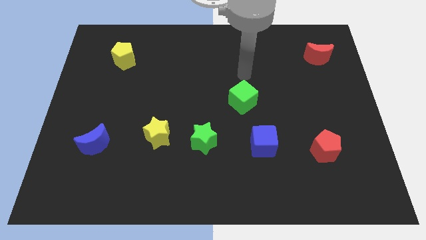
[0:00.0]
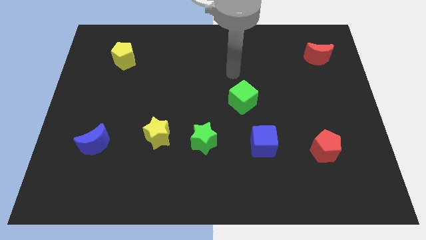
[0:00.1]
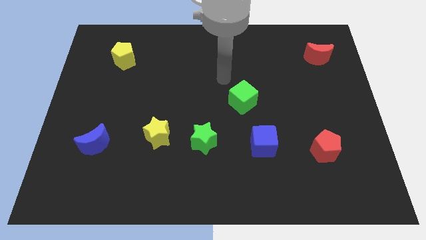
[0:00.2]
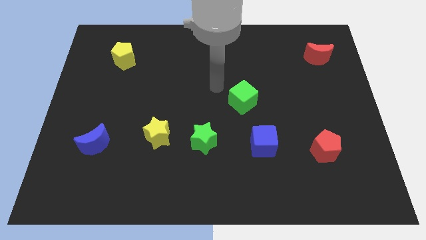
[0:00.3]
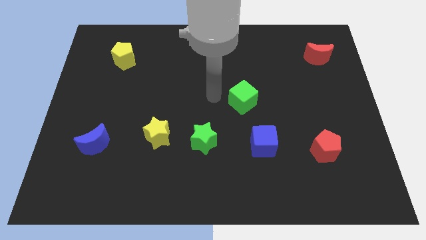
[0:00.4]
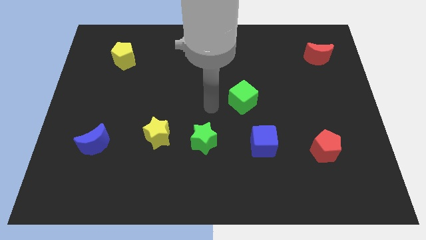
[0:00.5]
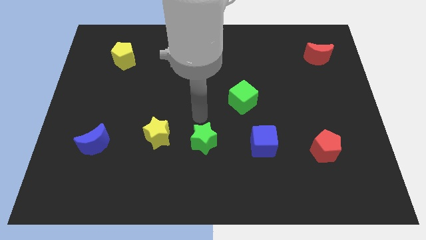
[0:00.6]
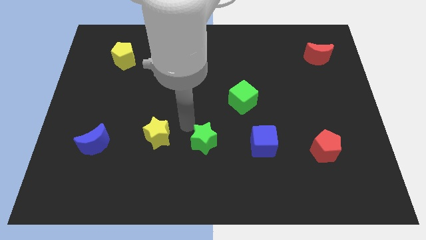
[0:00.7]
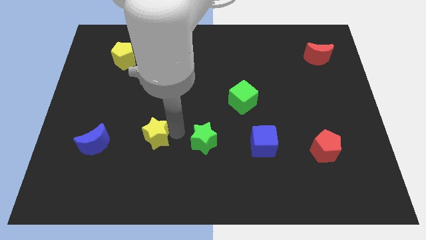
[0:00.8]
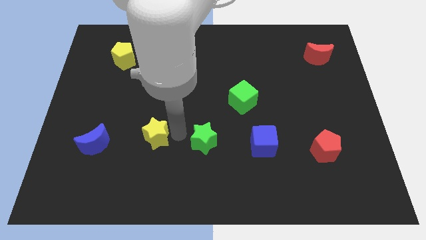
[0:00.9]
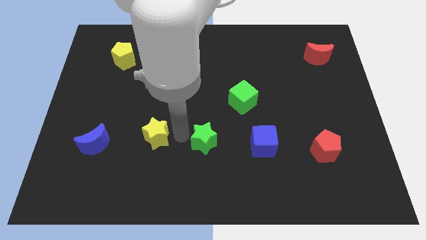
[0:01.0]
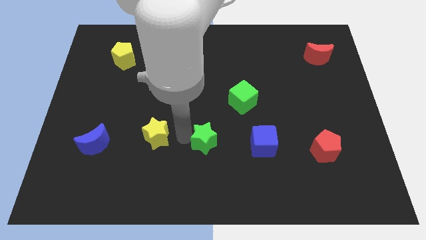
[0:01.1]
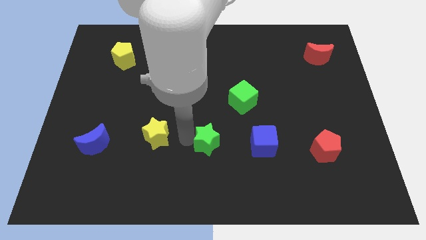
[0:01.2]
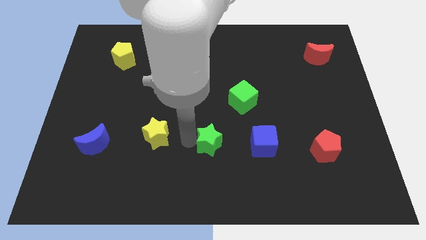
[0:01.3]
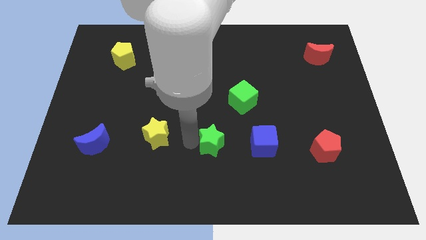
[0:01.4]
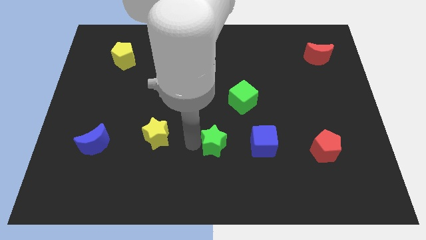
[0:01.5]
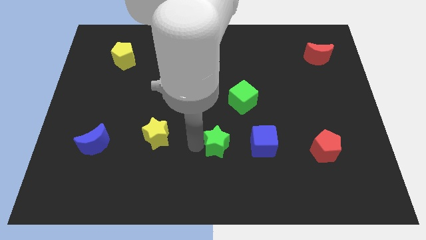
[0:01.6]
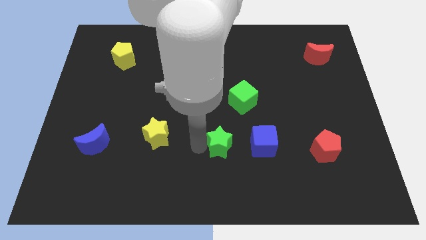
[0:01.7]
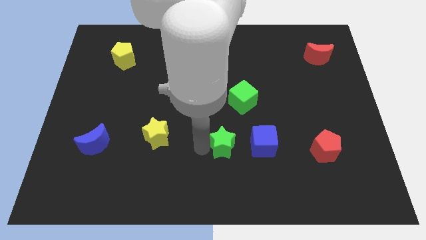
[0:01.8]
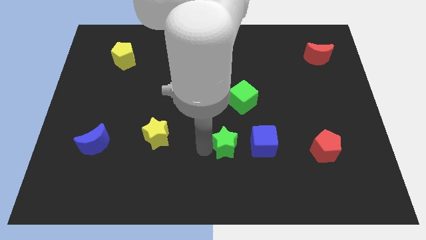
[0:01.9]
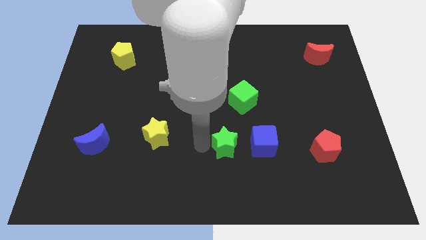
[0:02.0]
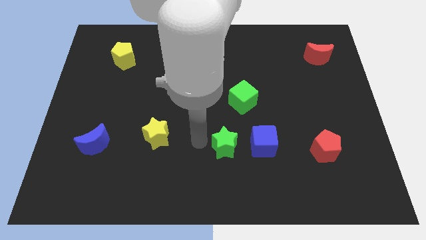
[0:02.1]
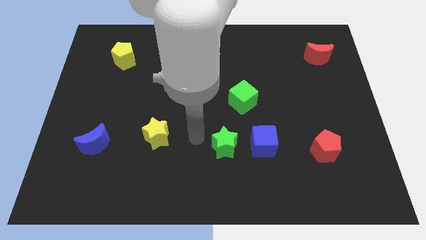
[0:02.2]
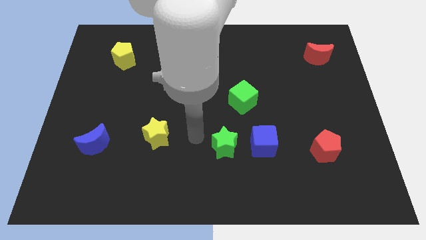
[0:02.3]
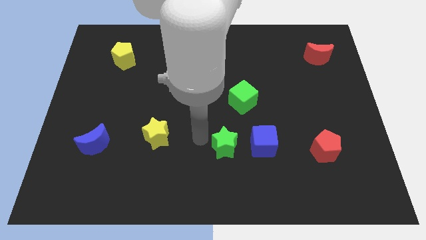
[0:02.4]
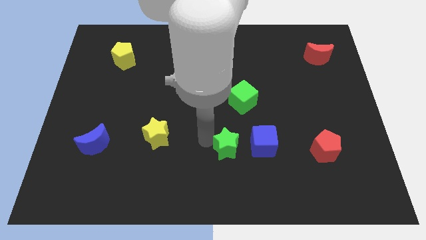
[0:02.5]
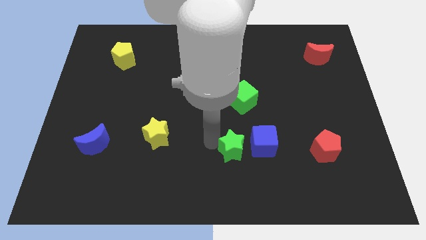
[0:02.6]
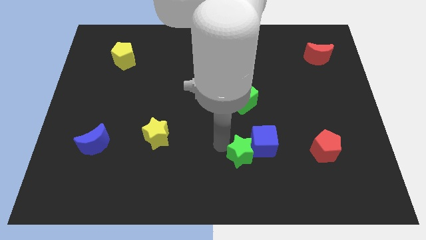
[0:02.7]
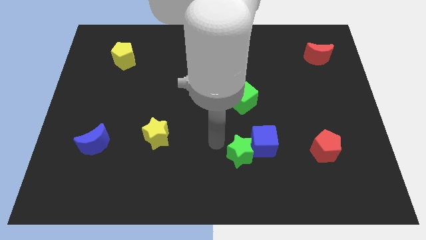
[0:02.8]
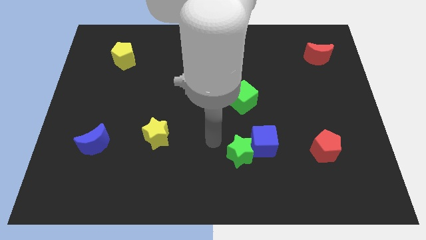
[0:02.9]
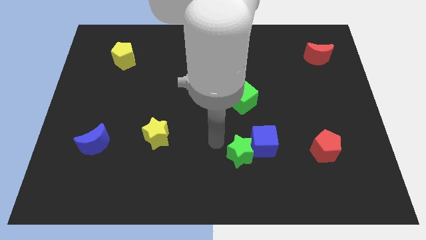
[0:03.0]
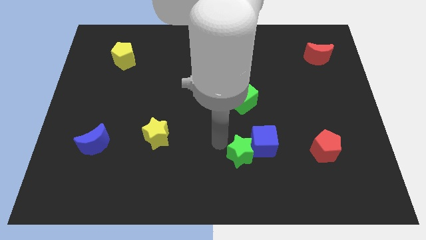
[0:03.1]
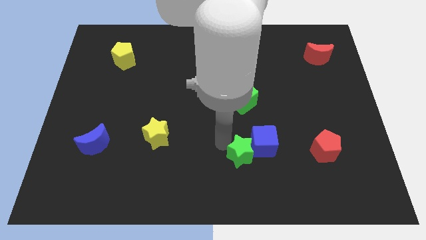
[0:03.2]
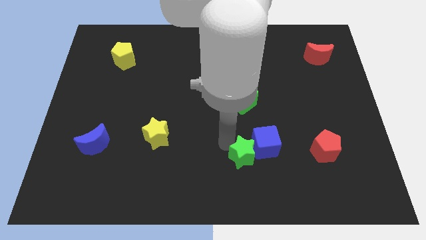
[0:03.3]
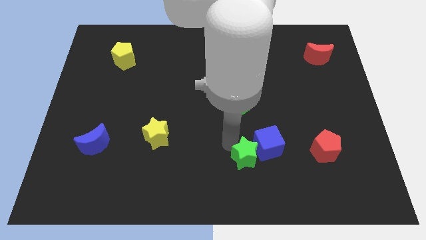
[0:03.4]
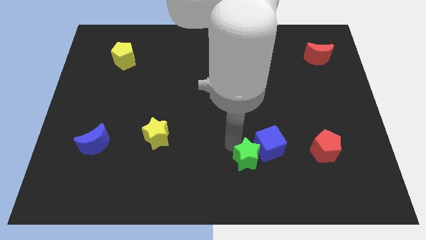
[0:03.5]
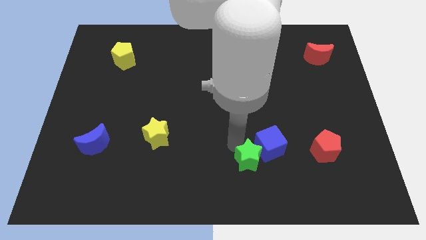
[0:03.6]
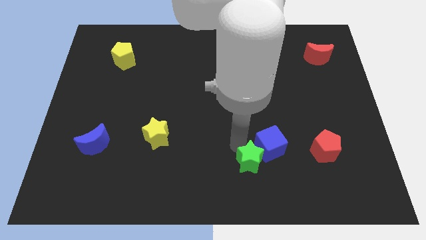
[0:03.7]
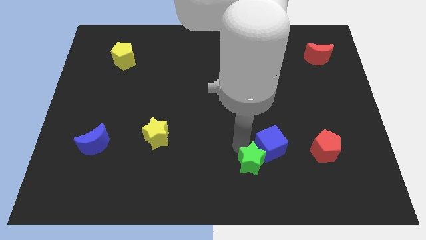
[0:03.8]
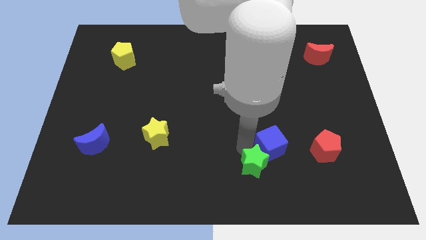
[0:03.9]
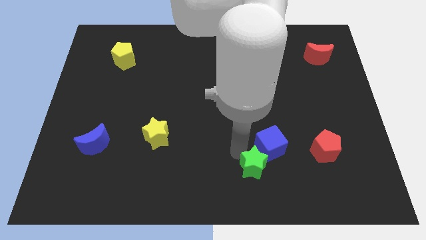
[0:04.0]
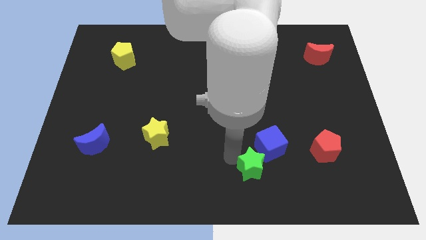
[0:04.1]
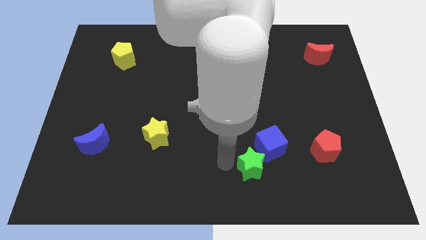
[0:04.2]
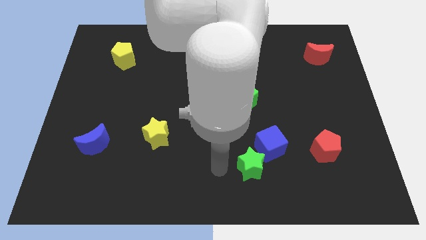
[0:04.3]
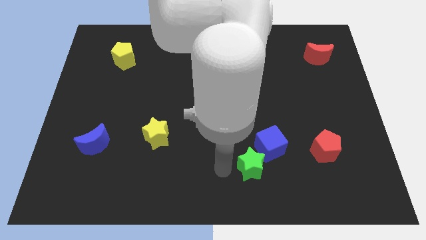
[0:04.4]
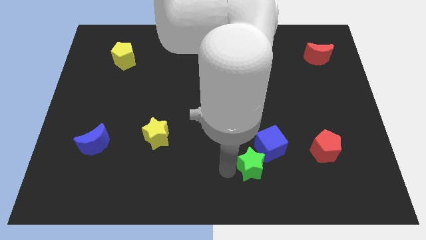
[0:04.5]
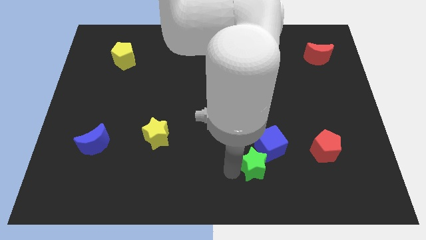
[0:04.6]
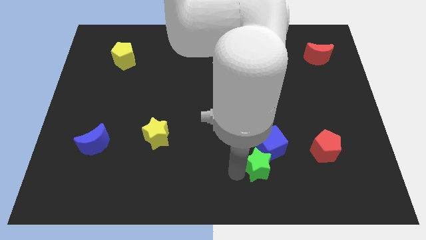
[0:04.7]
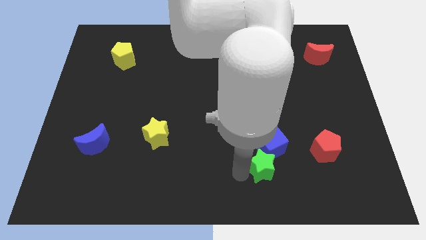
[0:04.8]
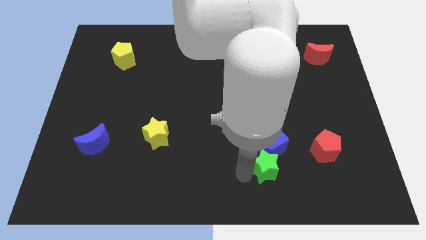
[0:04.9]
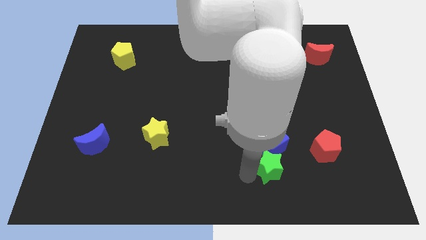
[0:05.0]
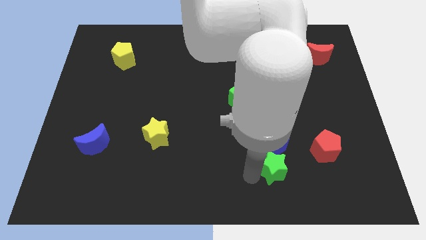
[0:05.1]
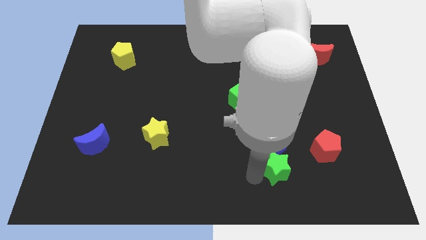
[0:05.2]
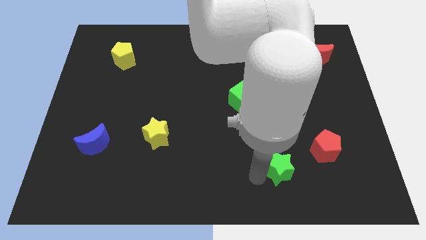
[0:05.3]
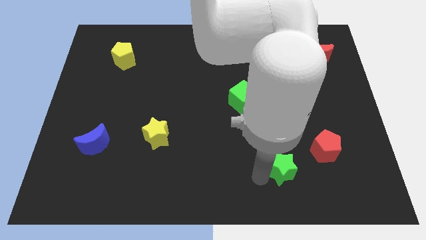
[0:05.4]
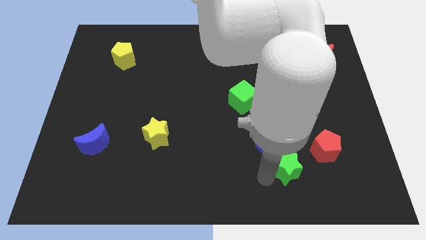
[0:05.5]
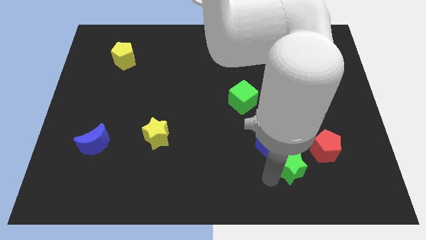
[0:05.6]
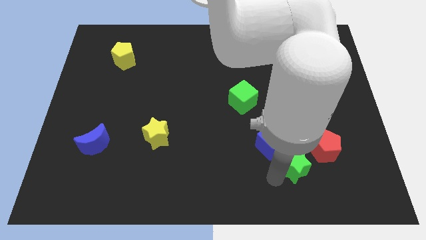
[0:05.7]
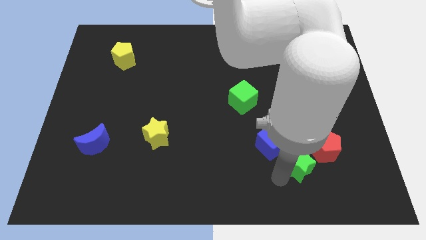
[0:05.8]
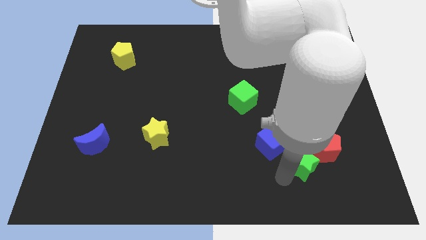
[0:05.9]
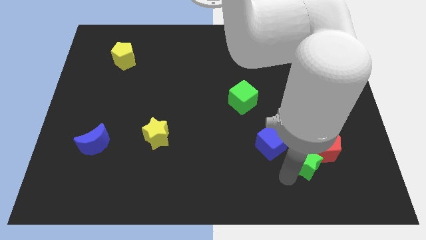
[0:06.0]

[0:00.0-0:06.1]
push the green star to the red pentagon
